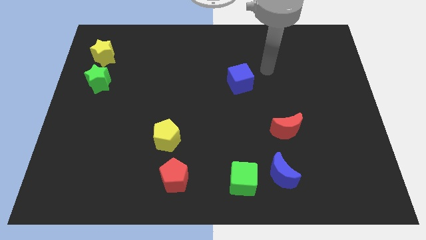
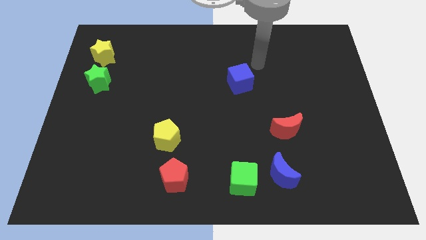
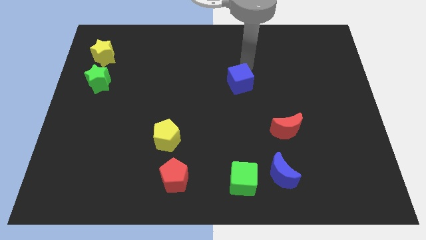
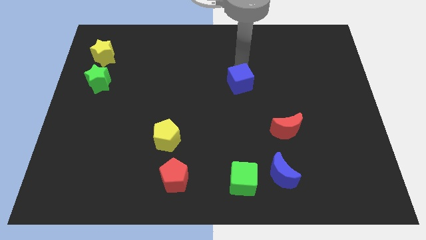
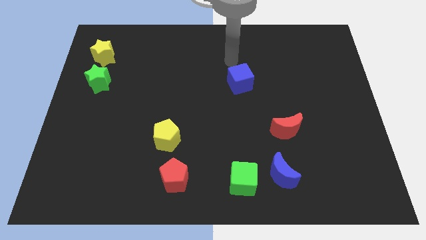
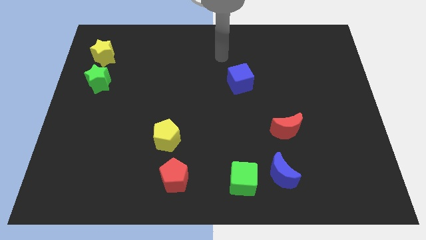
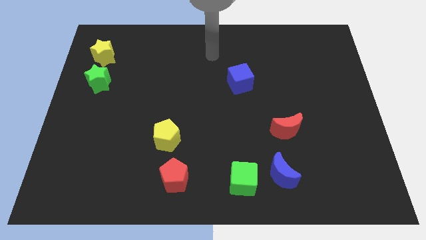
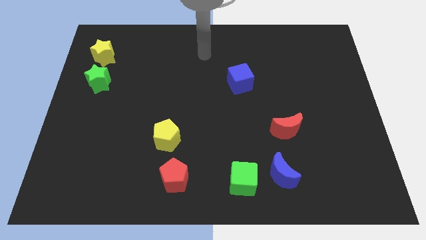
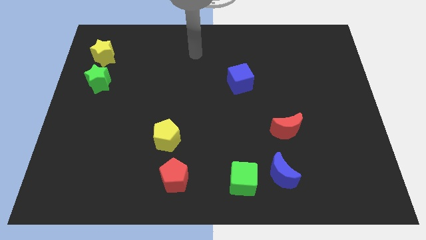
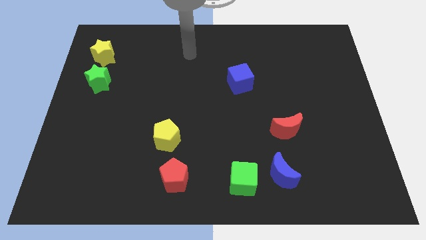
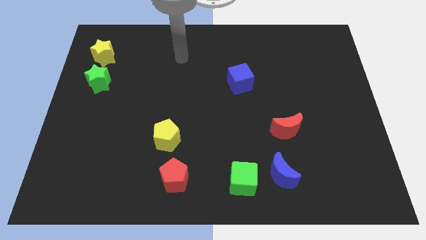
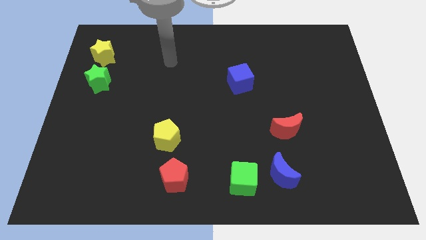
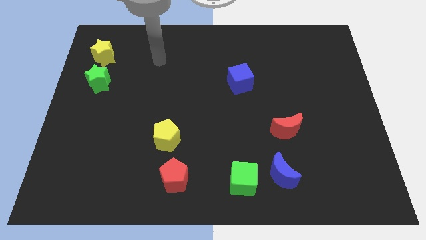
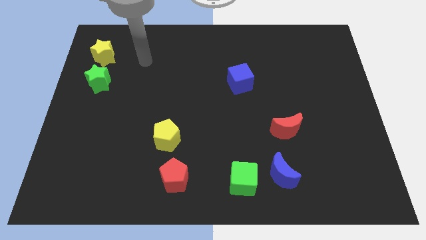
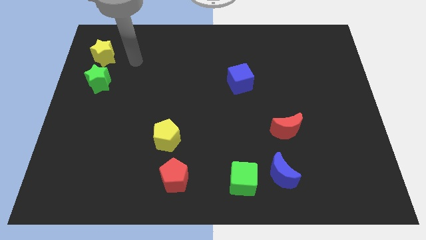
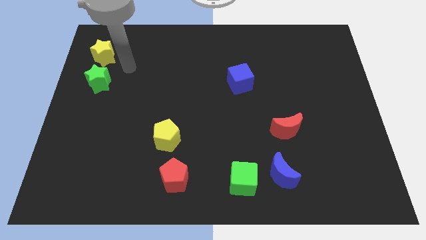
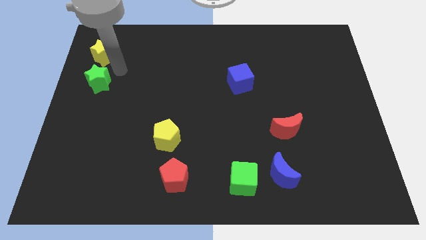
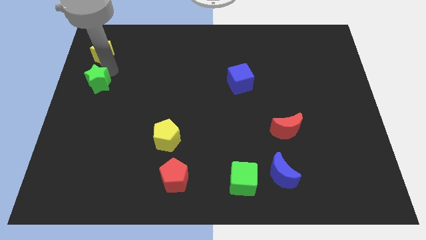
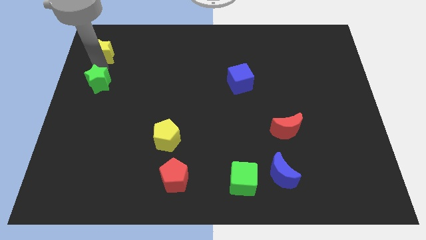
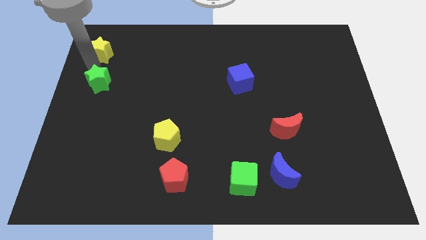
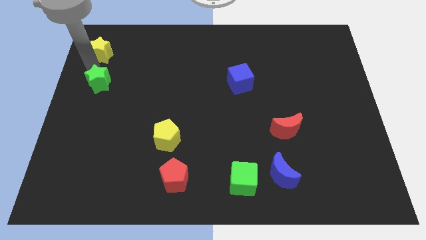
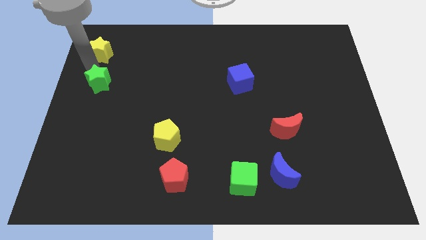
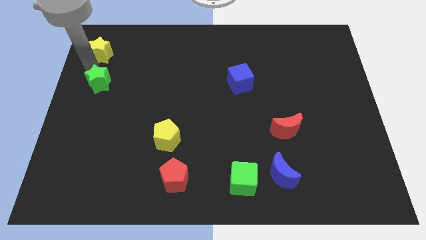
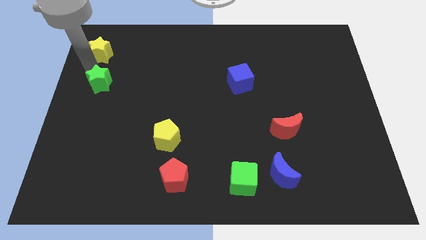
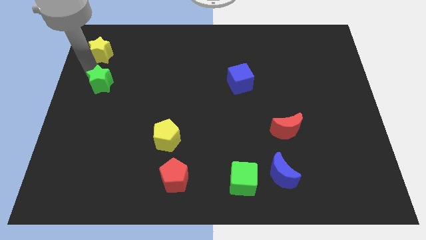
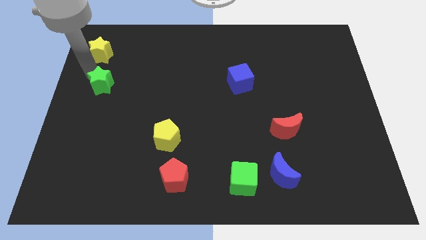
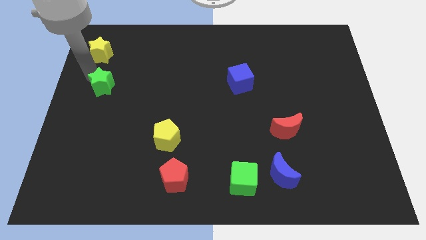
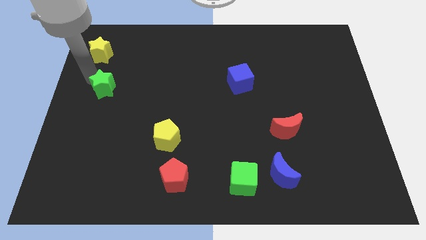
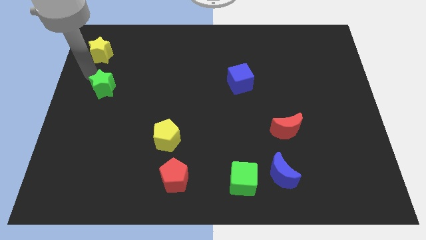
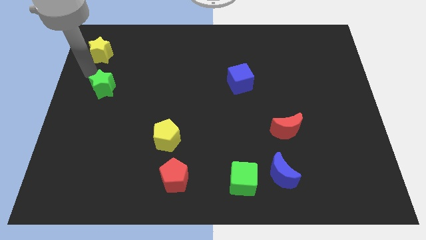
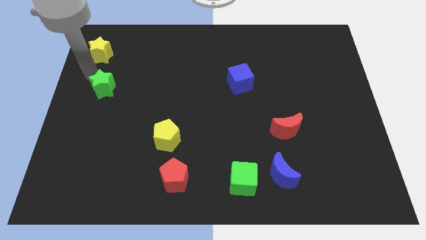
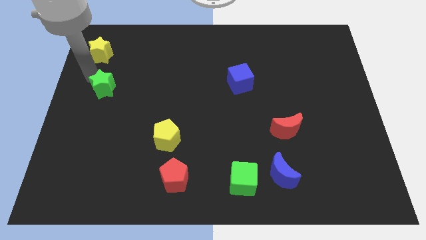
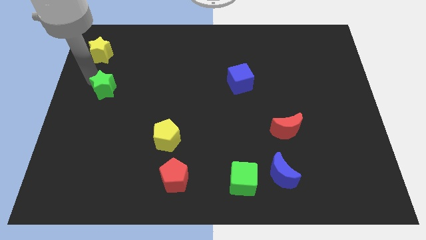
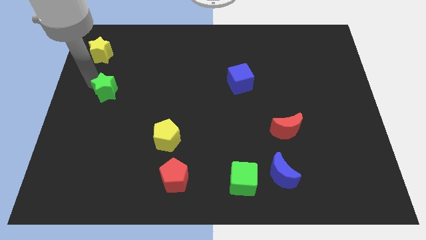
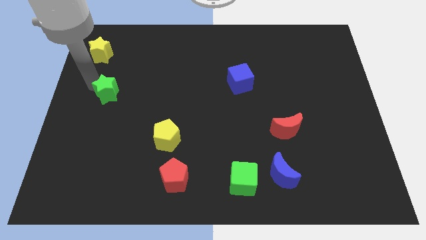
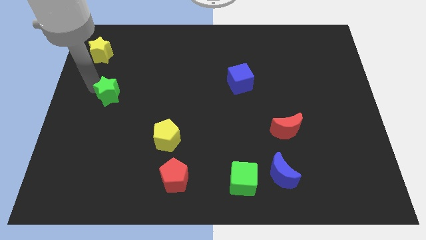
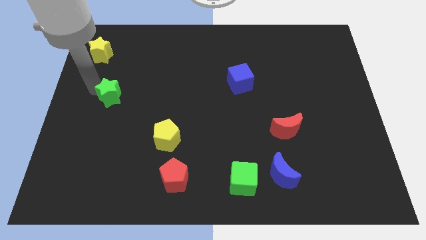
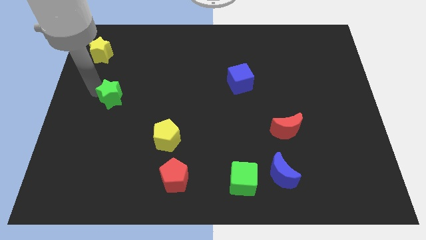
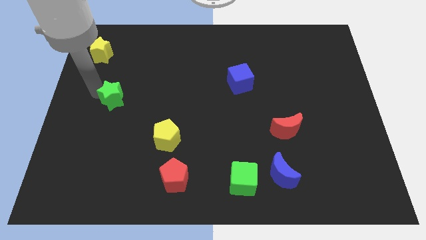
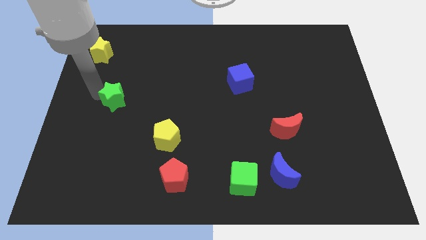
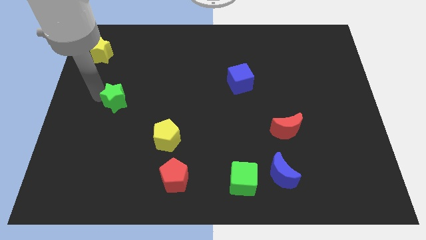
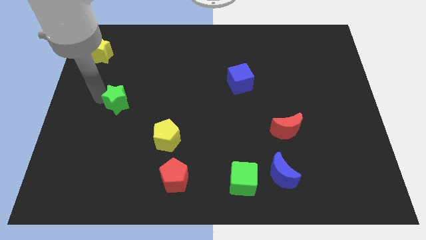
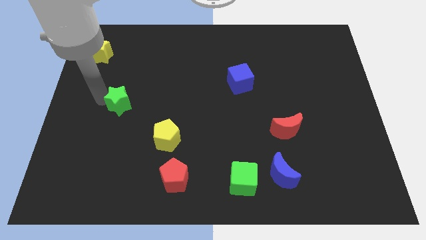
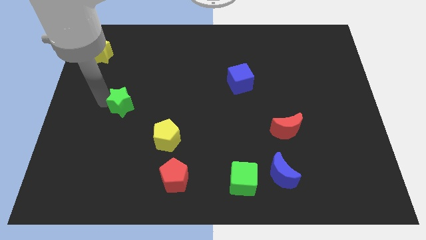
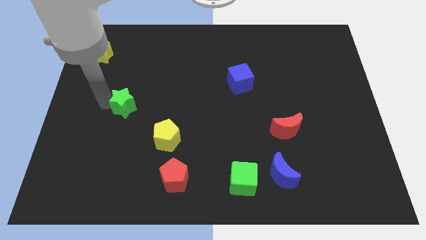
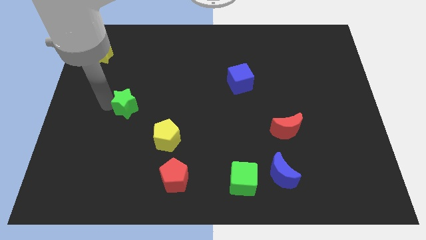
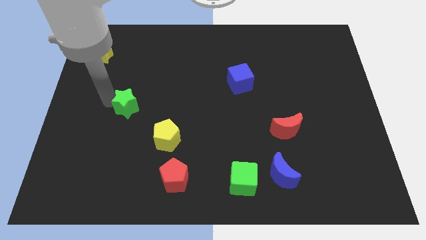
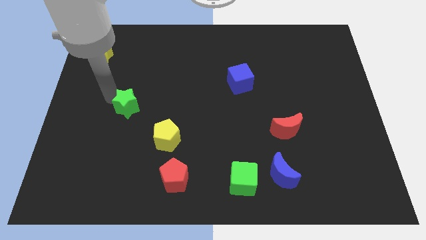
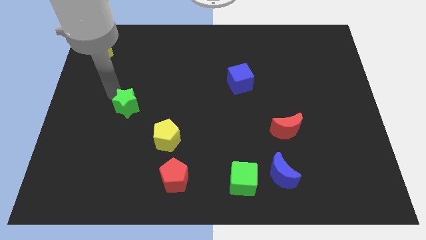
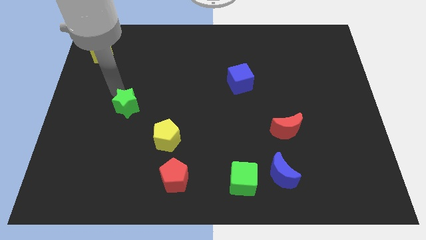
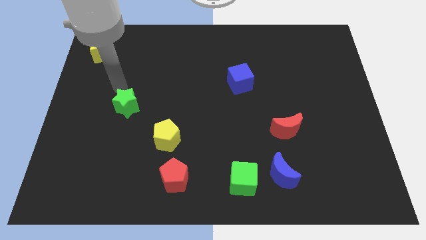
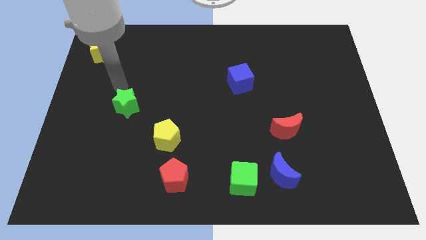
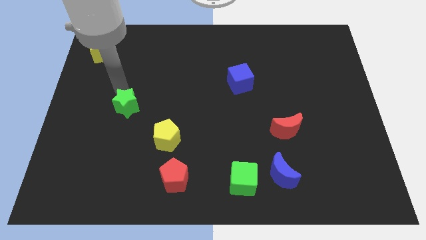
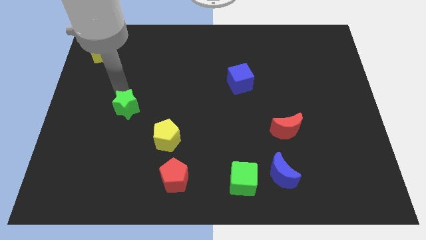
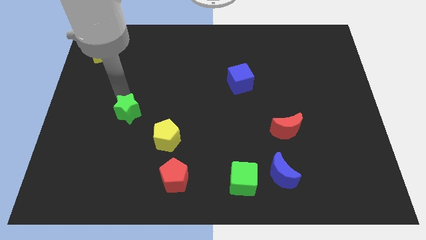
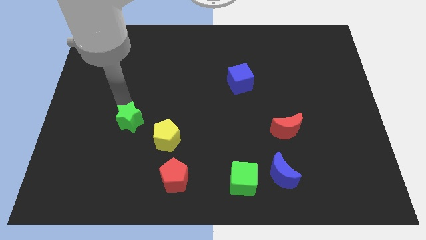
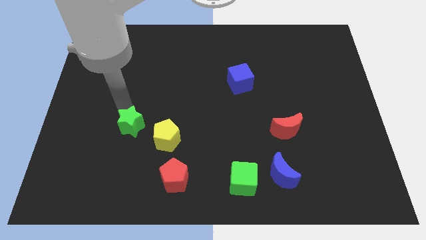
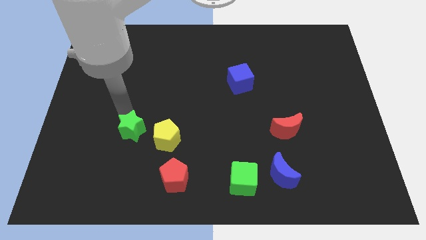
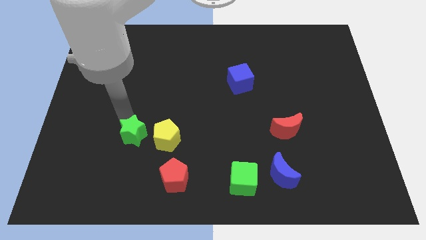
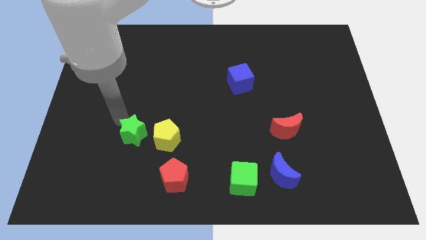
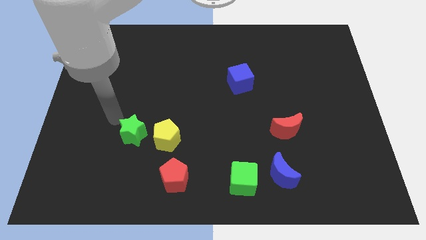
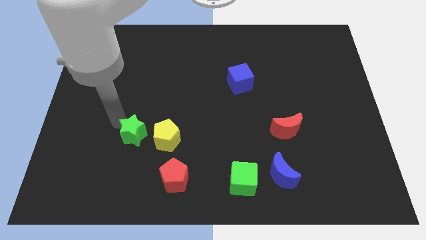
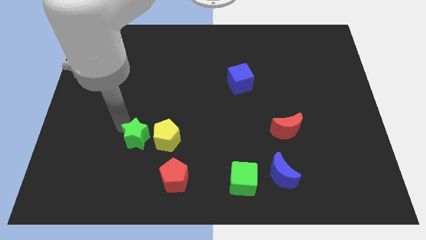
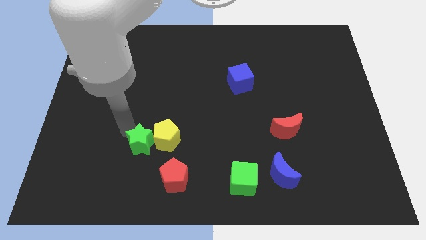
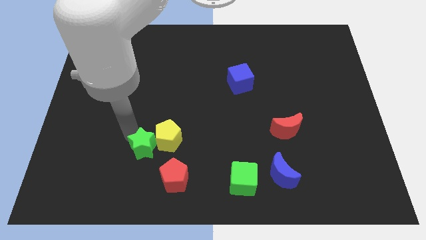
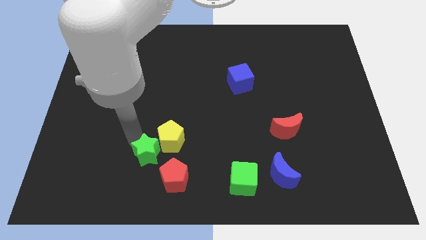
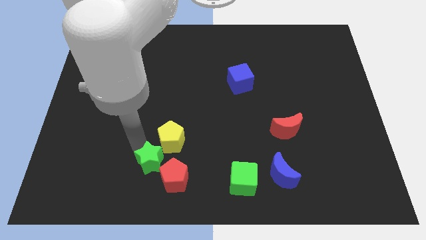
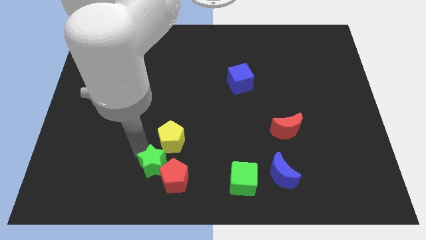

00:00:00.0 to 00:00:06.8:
move the green star towards the red pentagon

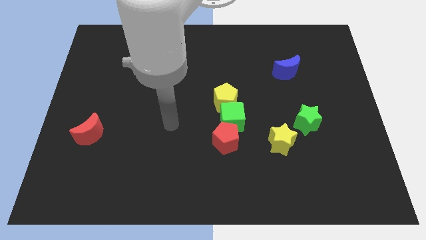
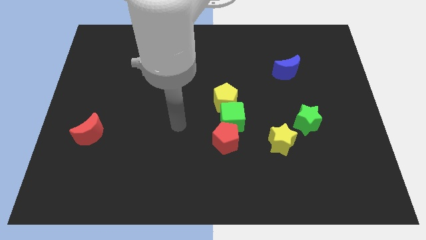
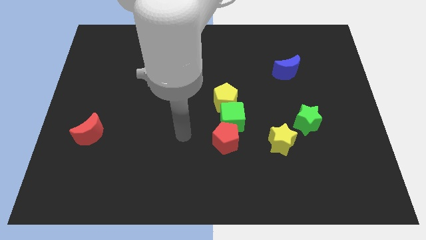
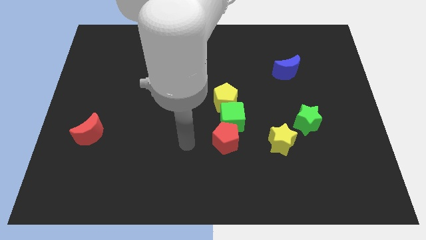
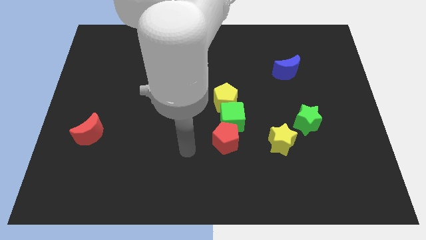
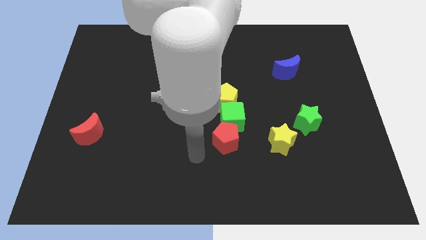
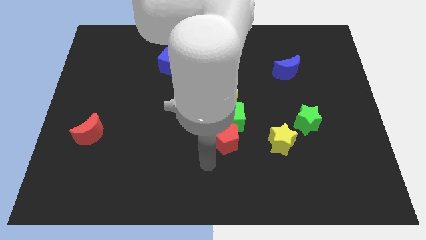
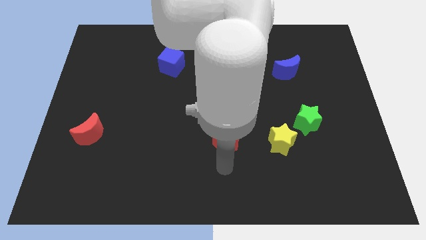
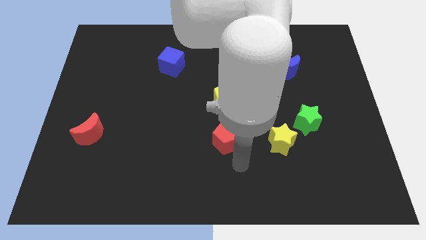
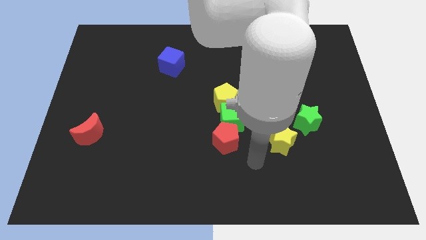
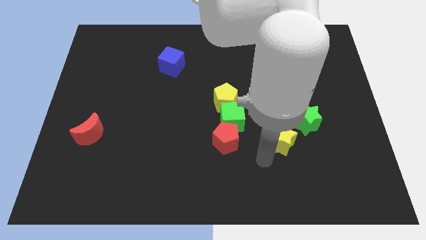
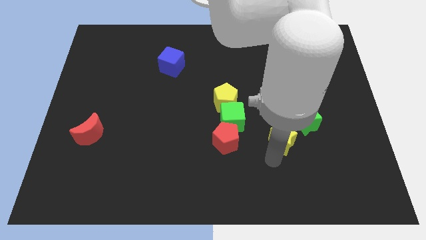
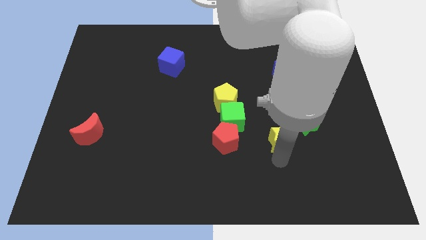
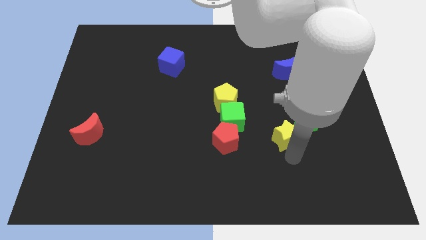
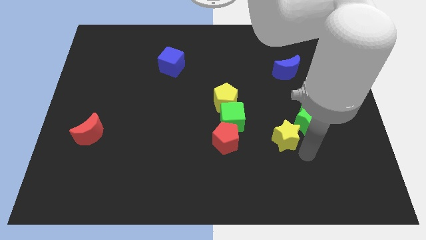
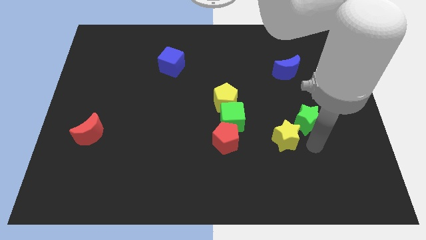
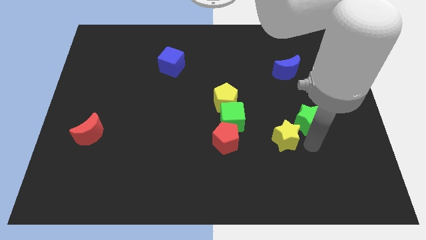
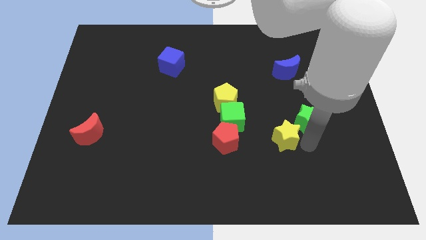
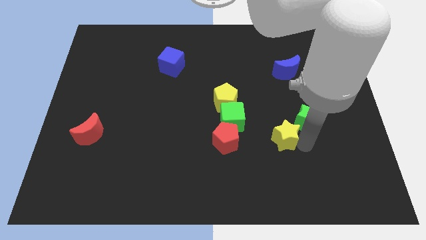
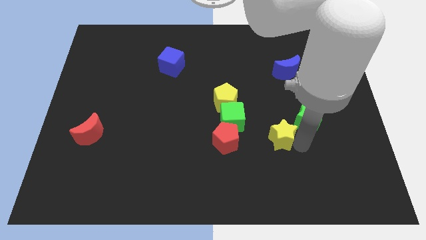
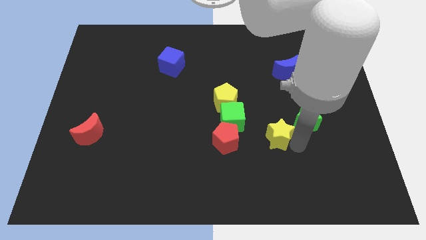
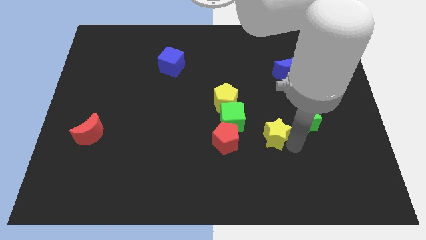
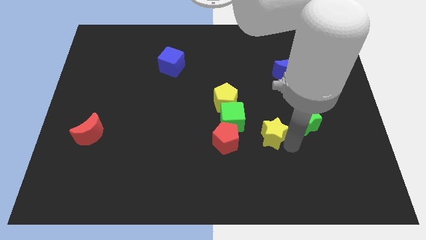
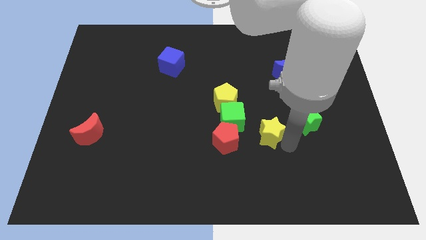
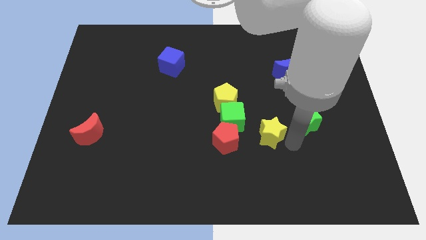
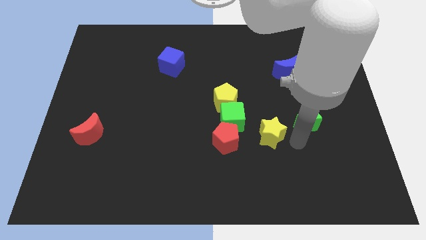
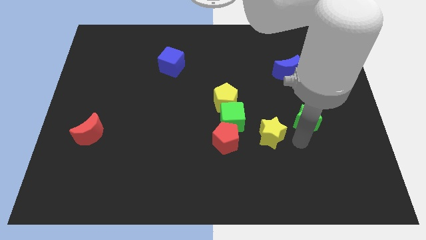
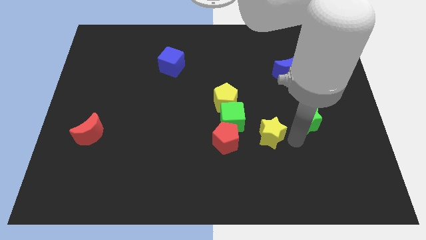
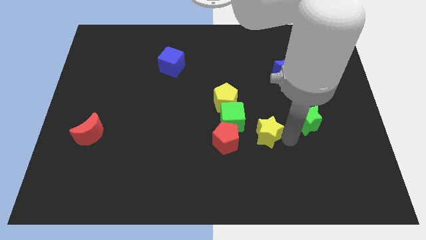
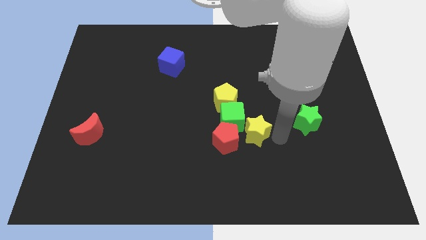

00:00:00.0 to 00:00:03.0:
put the yellow star towards the green cube
